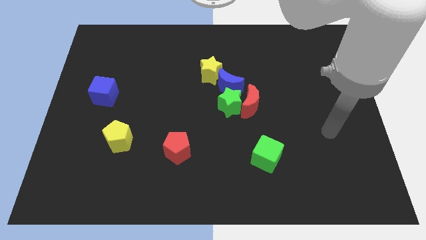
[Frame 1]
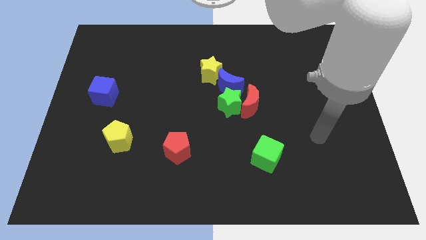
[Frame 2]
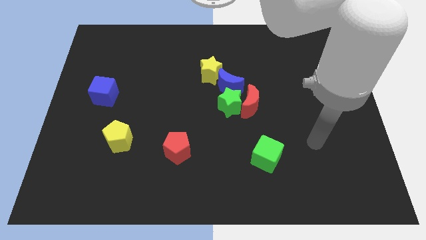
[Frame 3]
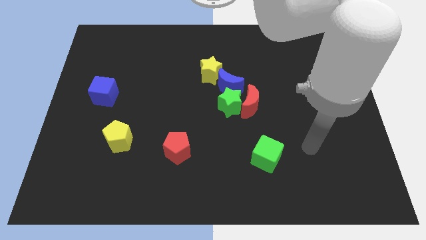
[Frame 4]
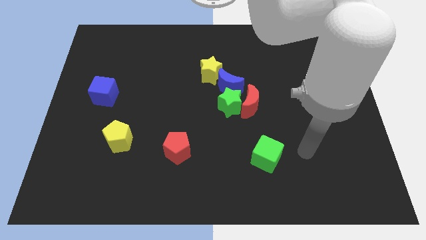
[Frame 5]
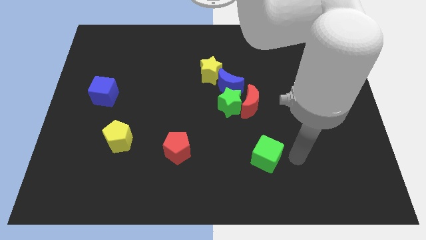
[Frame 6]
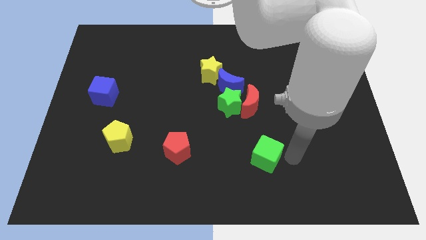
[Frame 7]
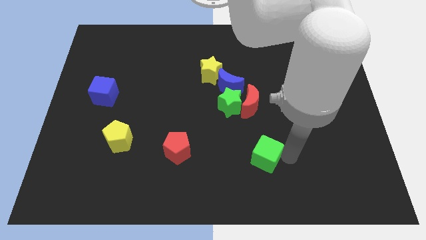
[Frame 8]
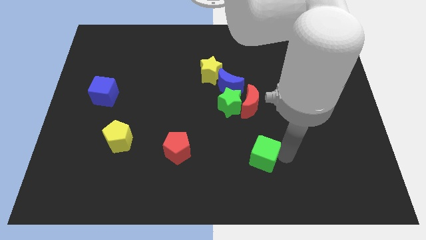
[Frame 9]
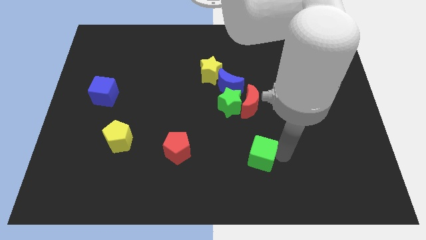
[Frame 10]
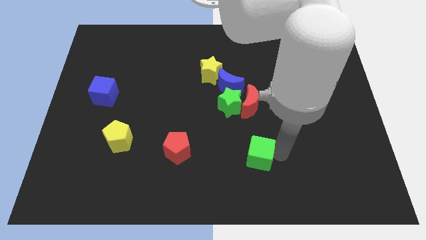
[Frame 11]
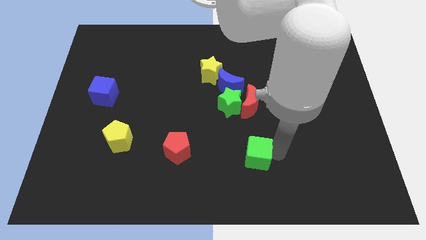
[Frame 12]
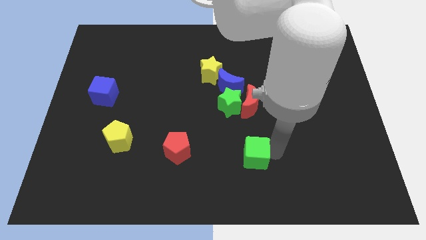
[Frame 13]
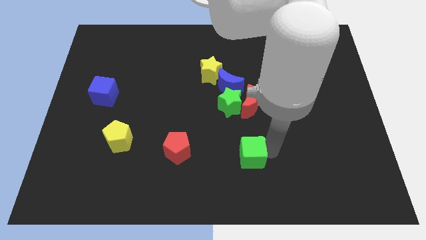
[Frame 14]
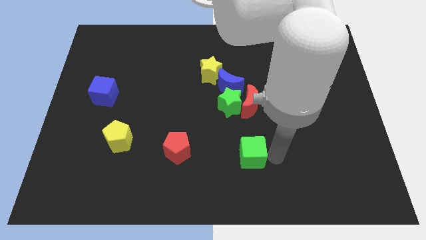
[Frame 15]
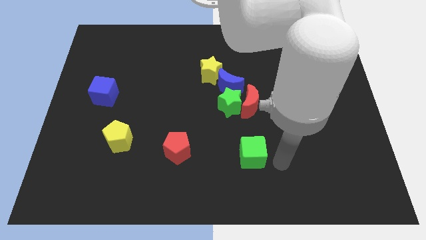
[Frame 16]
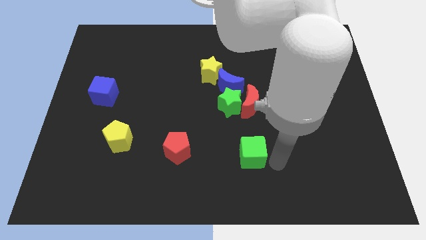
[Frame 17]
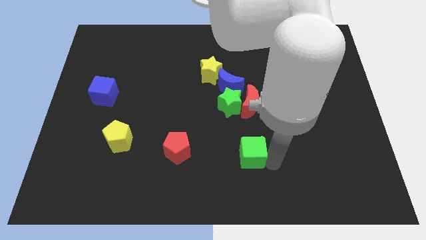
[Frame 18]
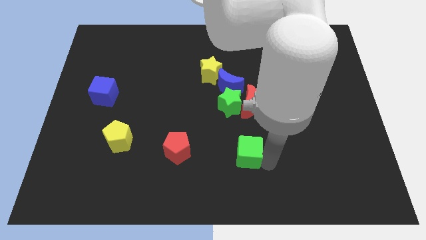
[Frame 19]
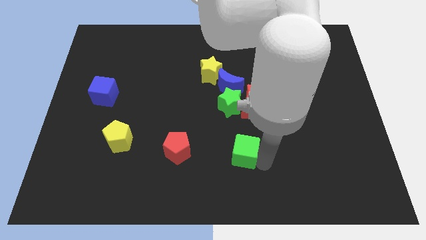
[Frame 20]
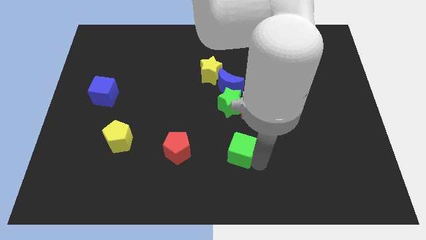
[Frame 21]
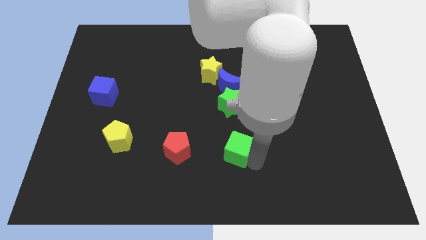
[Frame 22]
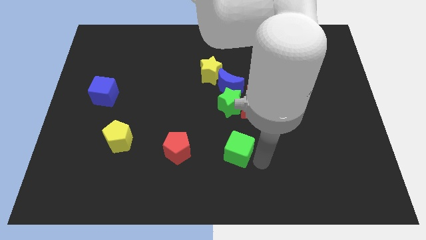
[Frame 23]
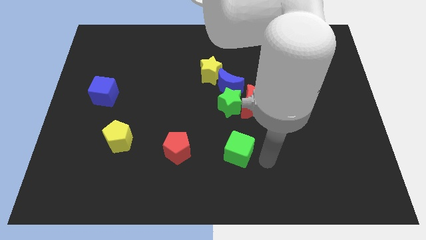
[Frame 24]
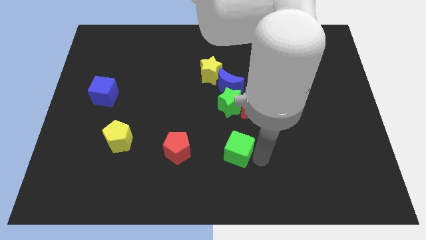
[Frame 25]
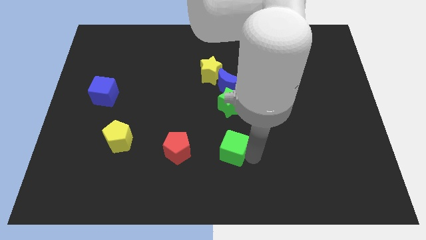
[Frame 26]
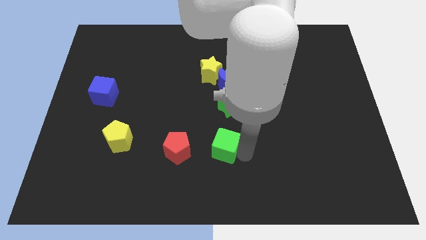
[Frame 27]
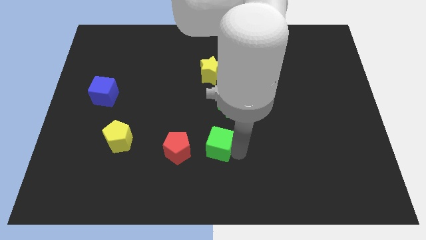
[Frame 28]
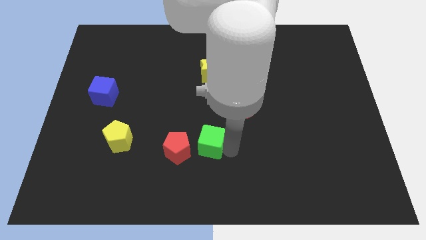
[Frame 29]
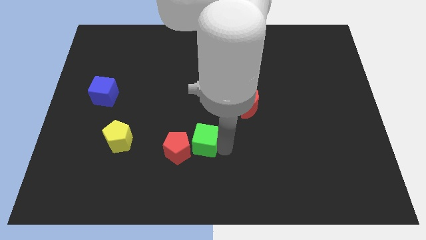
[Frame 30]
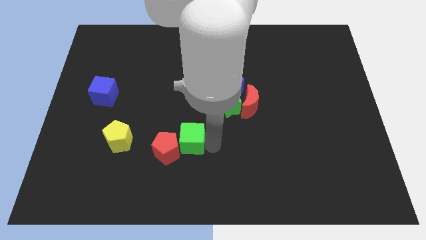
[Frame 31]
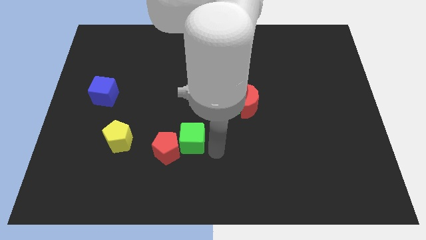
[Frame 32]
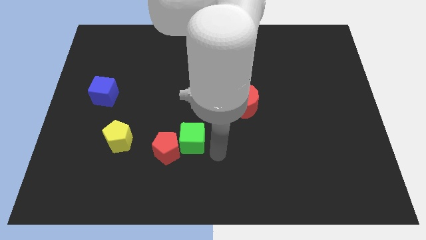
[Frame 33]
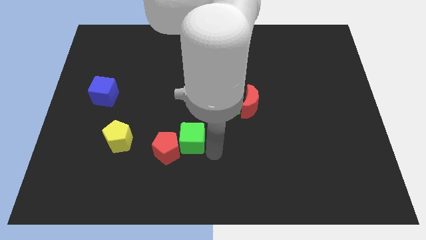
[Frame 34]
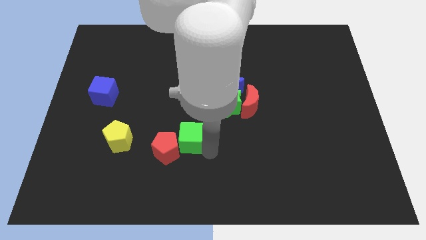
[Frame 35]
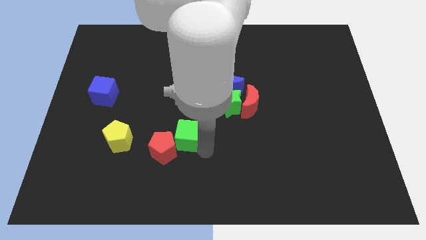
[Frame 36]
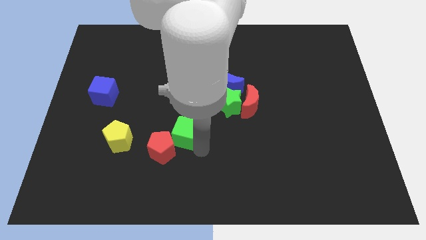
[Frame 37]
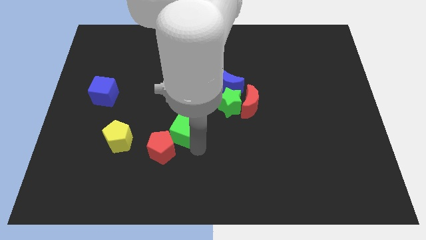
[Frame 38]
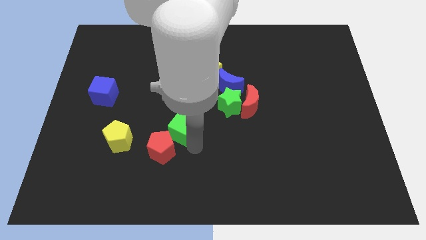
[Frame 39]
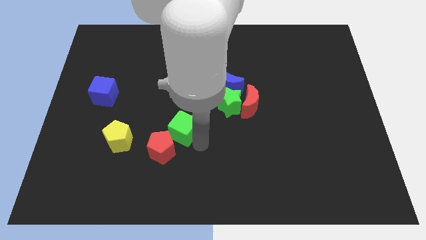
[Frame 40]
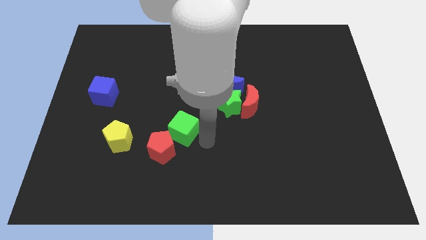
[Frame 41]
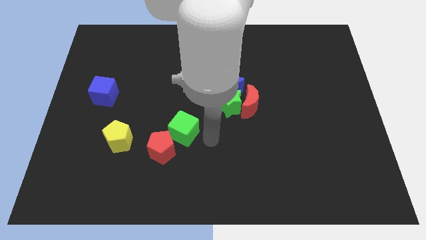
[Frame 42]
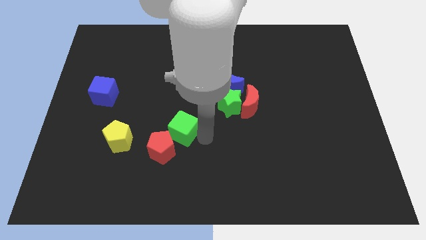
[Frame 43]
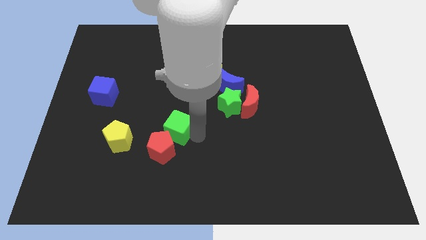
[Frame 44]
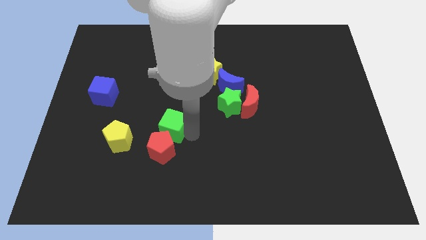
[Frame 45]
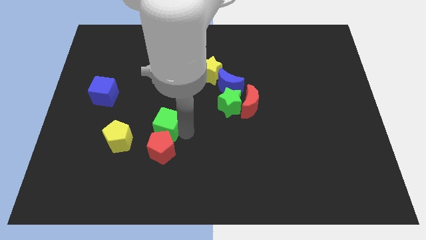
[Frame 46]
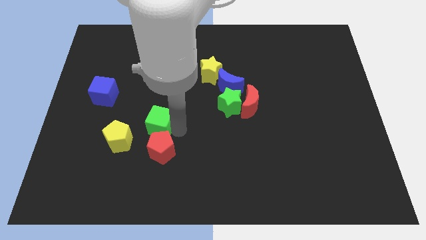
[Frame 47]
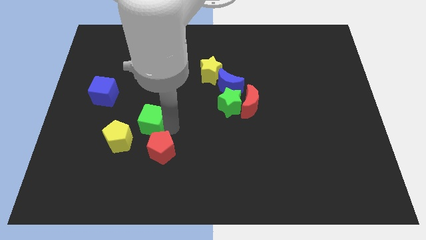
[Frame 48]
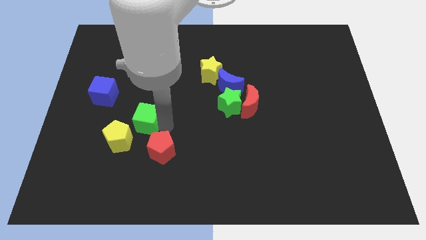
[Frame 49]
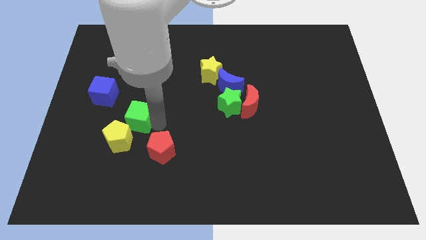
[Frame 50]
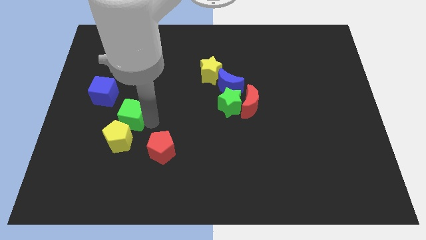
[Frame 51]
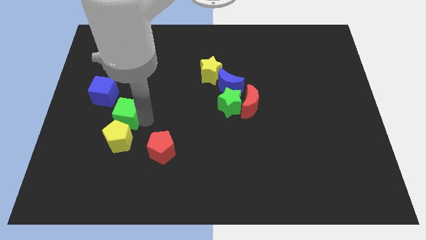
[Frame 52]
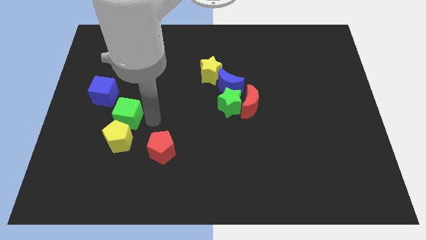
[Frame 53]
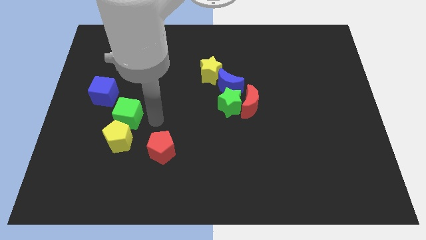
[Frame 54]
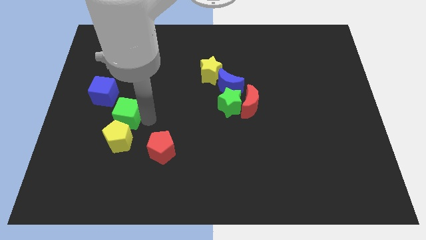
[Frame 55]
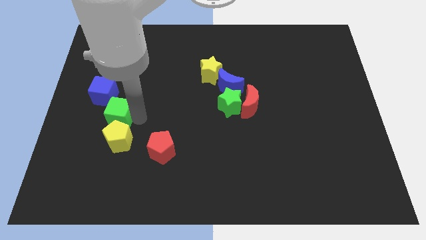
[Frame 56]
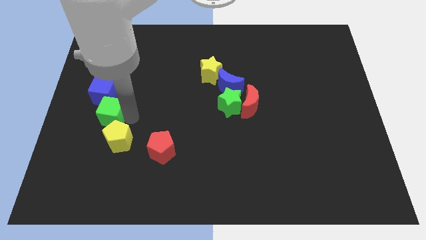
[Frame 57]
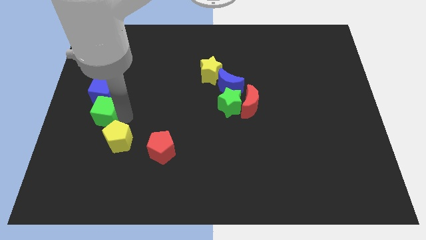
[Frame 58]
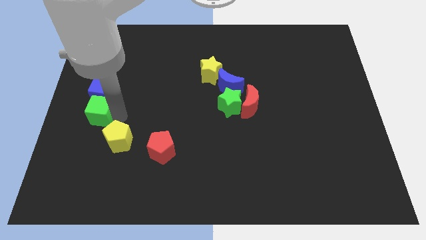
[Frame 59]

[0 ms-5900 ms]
push the green cube to the left side of the board

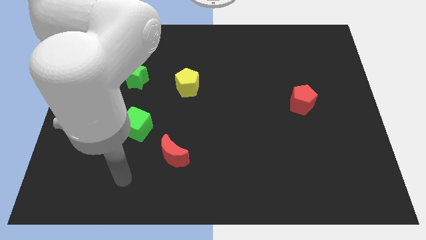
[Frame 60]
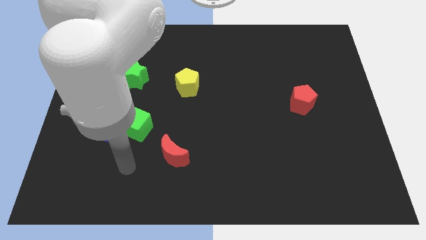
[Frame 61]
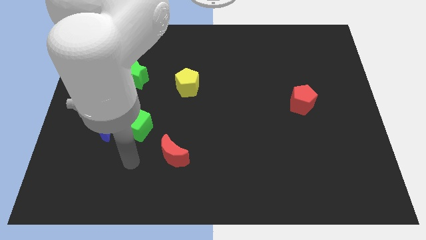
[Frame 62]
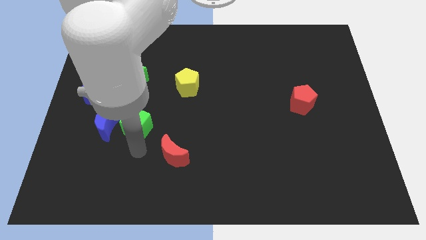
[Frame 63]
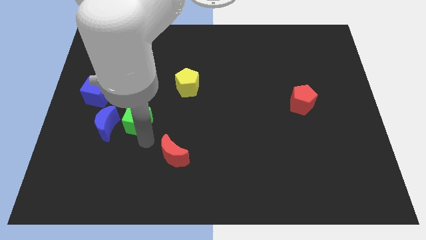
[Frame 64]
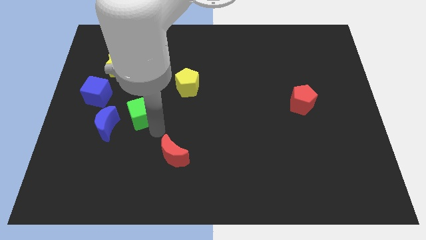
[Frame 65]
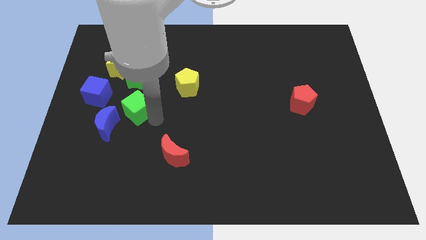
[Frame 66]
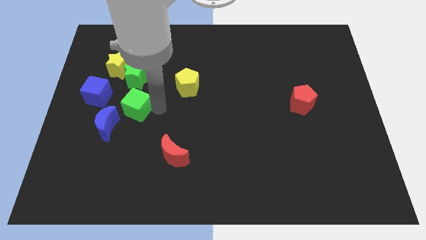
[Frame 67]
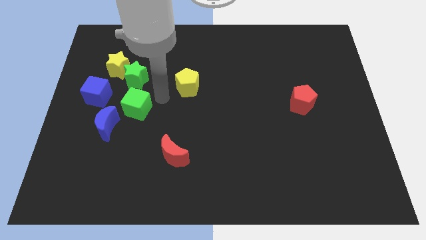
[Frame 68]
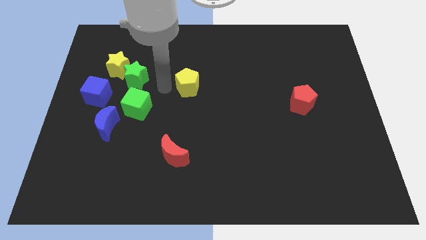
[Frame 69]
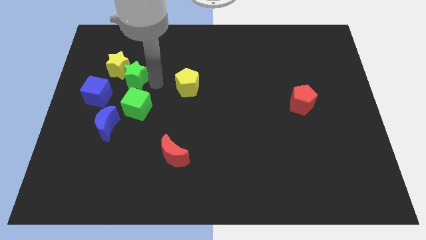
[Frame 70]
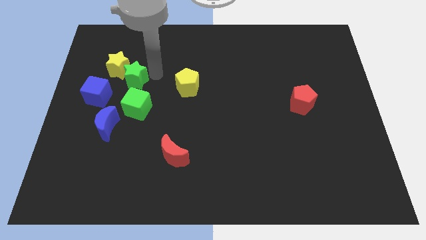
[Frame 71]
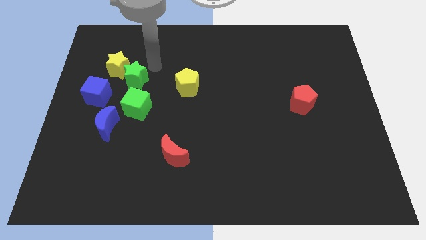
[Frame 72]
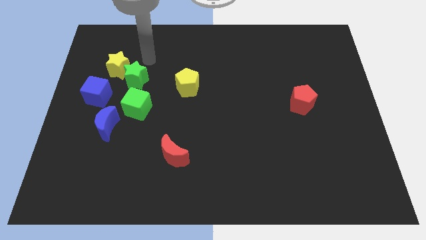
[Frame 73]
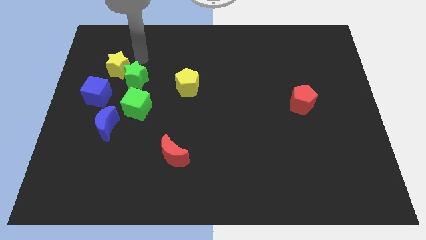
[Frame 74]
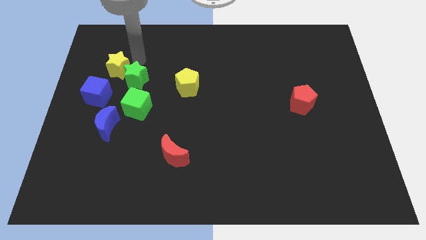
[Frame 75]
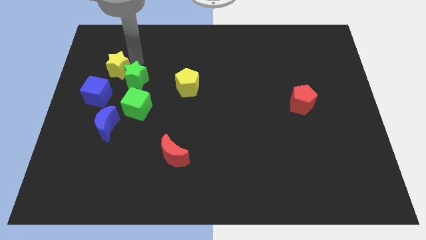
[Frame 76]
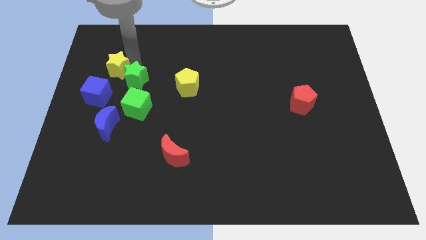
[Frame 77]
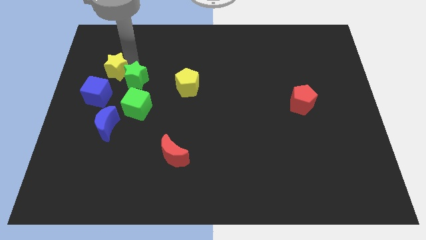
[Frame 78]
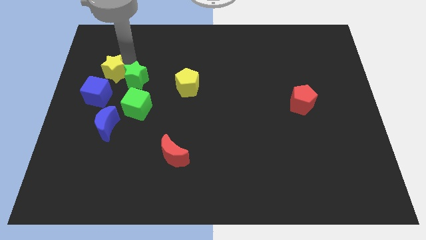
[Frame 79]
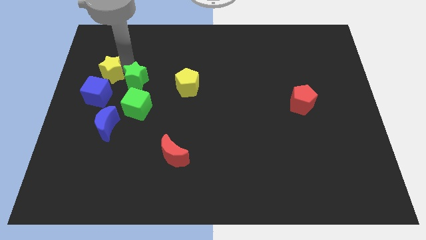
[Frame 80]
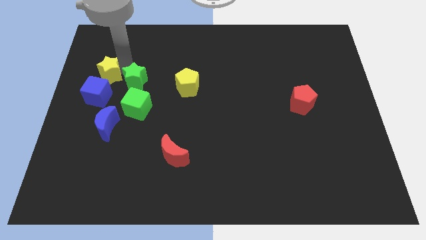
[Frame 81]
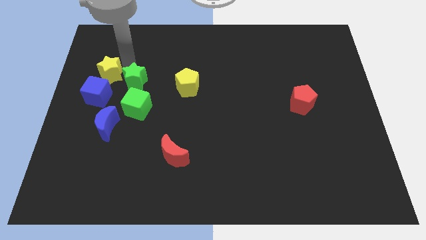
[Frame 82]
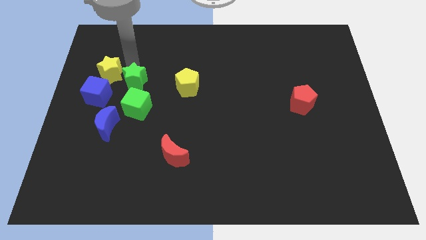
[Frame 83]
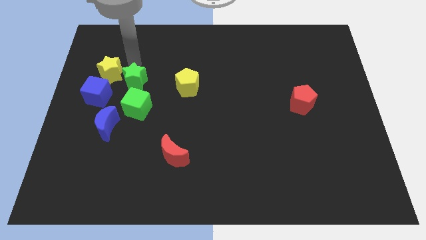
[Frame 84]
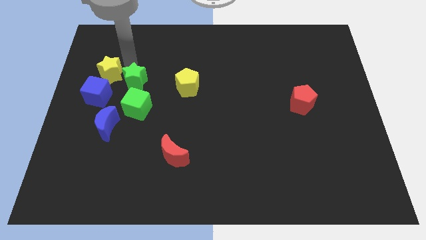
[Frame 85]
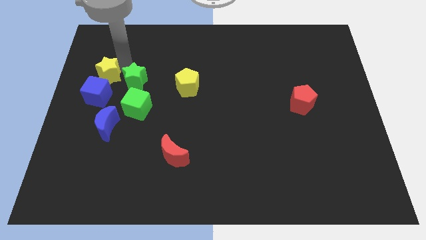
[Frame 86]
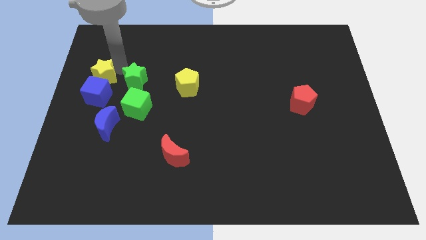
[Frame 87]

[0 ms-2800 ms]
move the yellow star to the left side
